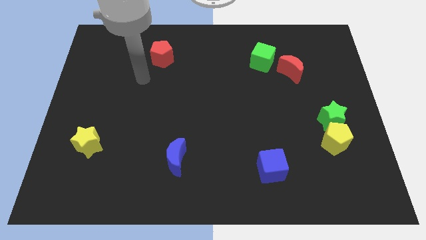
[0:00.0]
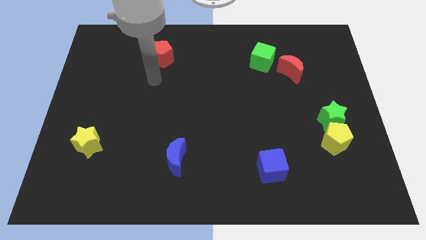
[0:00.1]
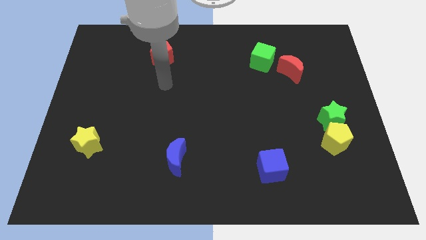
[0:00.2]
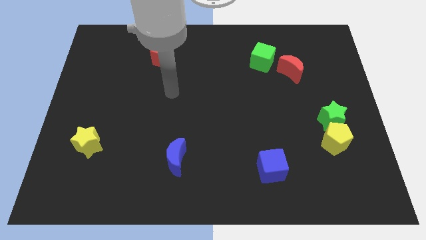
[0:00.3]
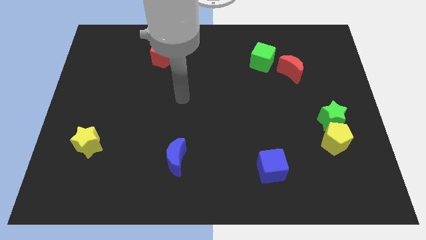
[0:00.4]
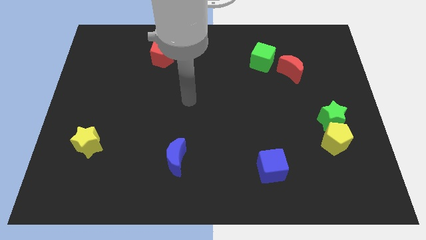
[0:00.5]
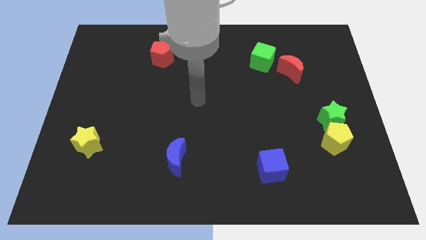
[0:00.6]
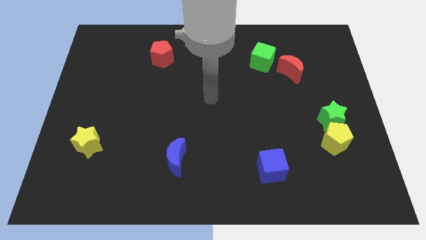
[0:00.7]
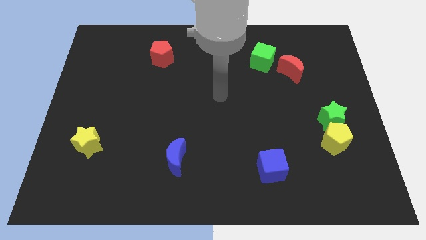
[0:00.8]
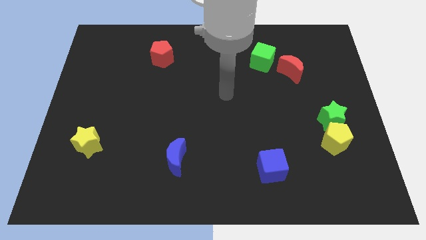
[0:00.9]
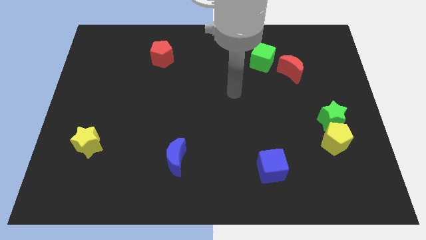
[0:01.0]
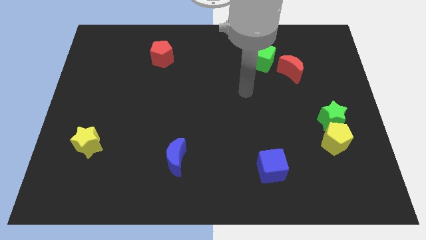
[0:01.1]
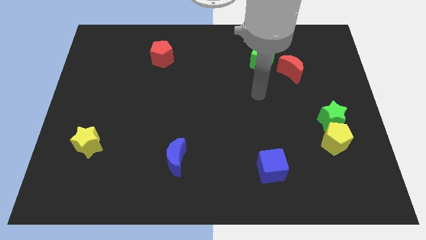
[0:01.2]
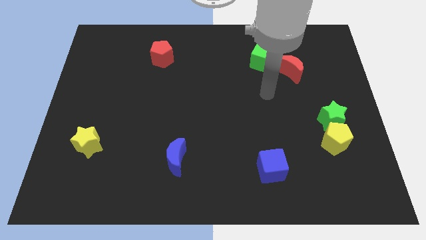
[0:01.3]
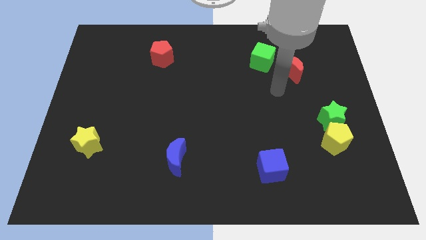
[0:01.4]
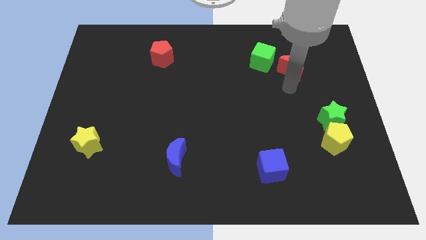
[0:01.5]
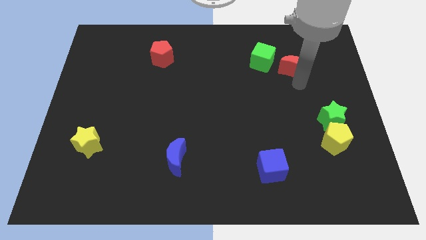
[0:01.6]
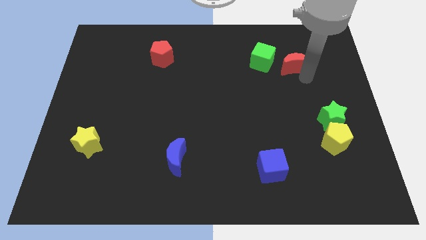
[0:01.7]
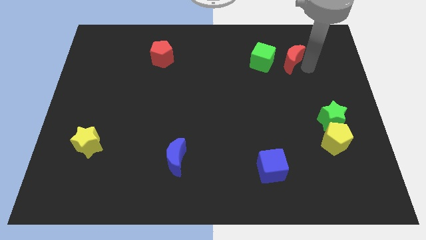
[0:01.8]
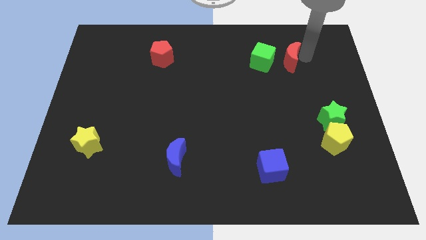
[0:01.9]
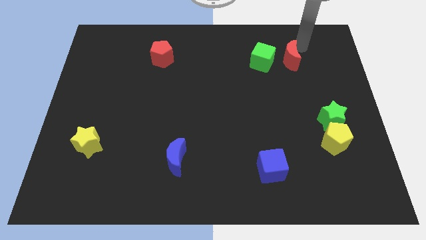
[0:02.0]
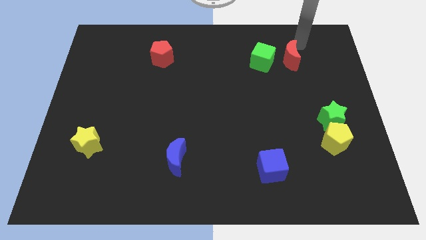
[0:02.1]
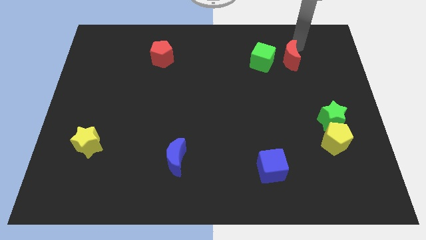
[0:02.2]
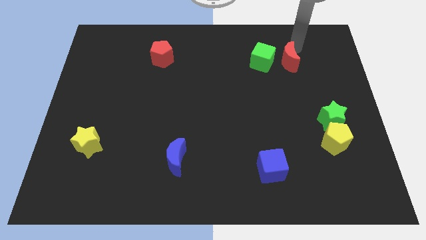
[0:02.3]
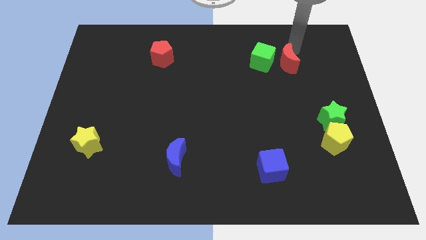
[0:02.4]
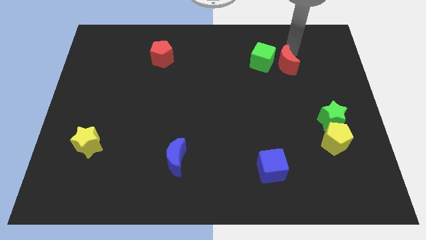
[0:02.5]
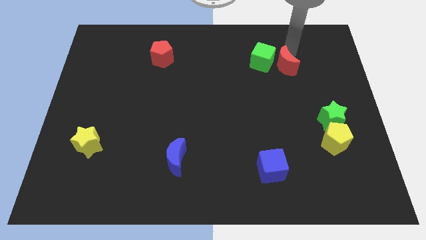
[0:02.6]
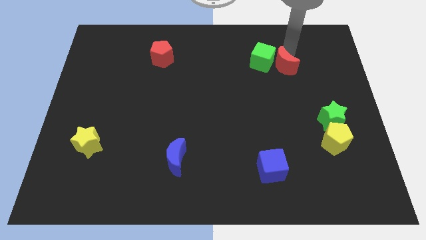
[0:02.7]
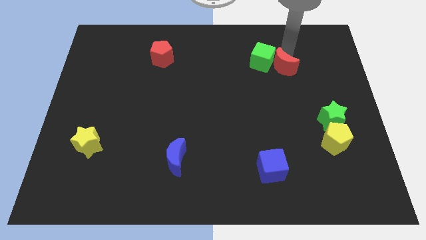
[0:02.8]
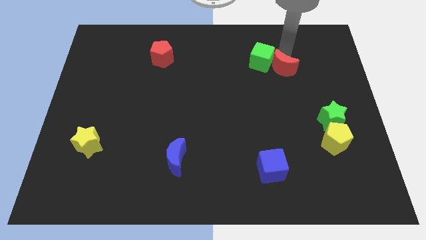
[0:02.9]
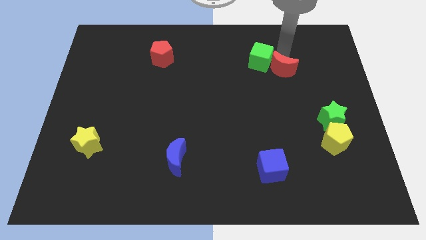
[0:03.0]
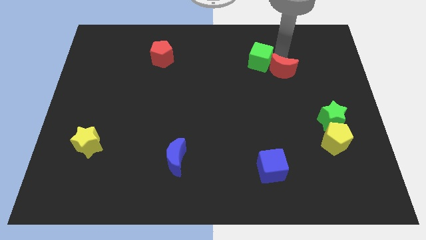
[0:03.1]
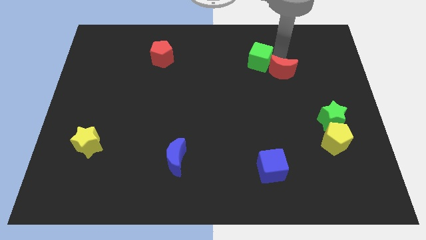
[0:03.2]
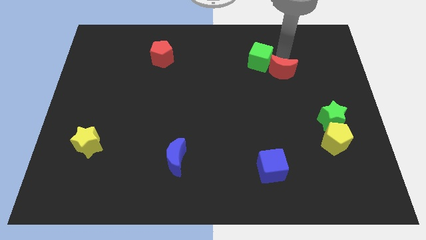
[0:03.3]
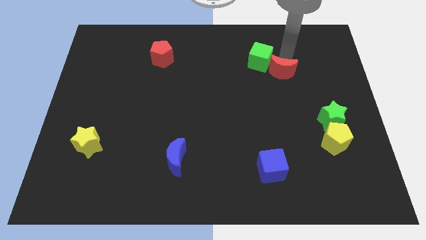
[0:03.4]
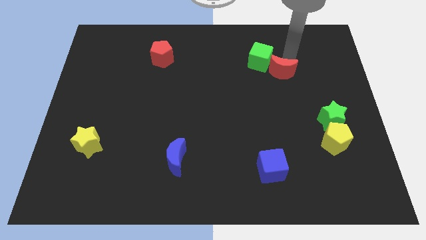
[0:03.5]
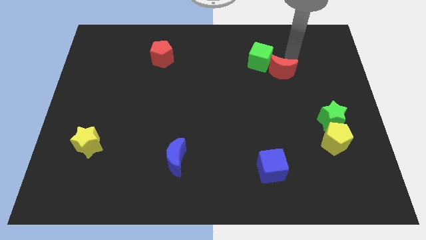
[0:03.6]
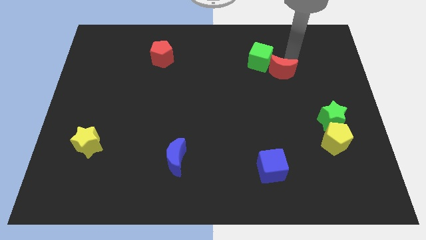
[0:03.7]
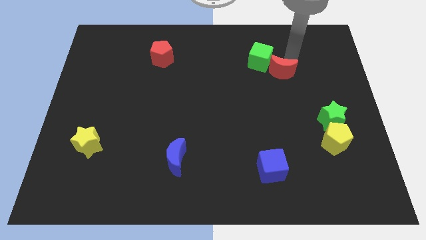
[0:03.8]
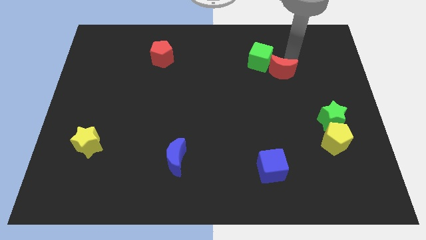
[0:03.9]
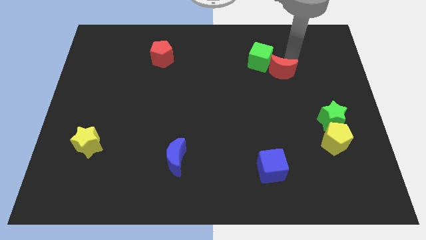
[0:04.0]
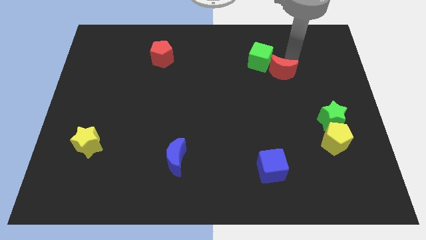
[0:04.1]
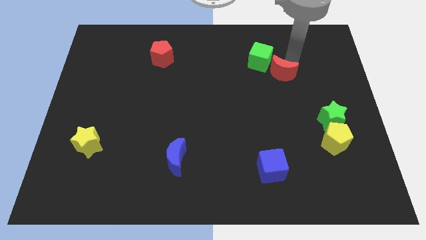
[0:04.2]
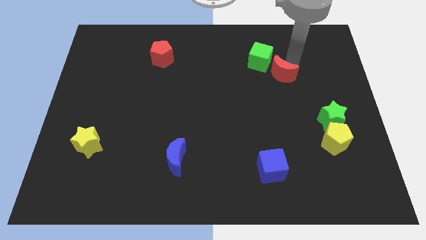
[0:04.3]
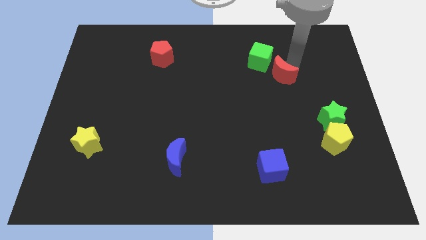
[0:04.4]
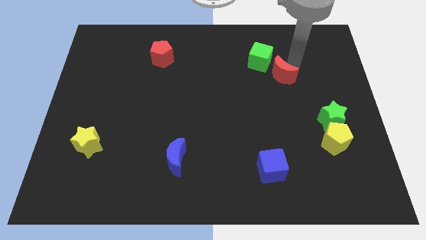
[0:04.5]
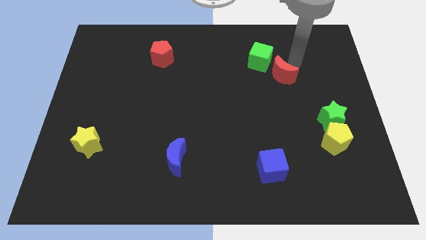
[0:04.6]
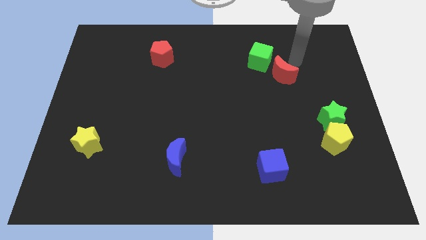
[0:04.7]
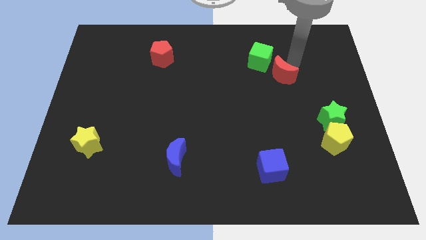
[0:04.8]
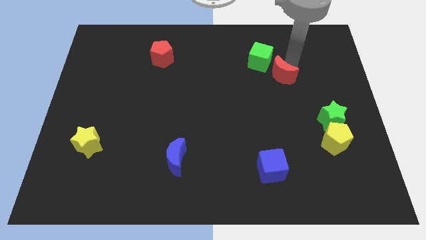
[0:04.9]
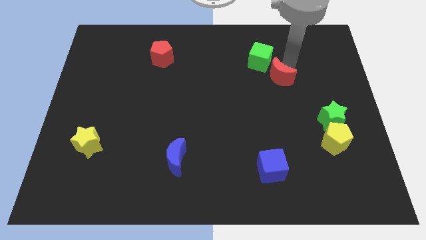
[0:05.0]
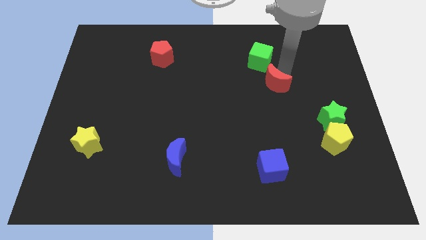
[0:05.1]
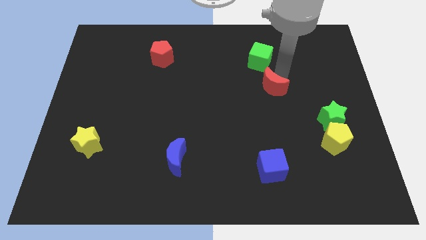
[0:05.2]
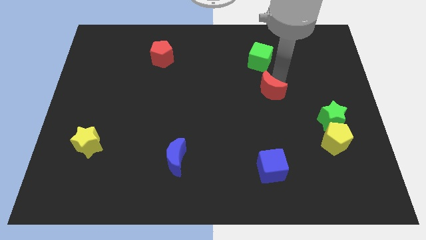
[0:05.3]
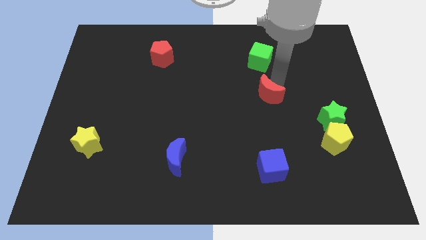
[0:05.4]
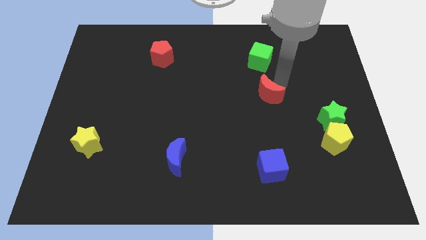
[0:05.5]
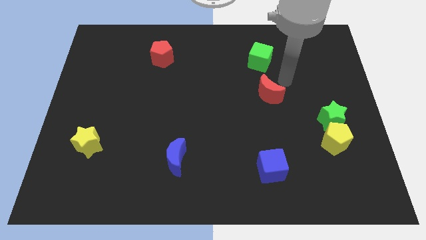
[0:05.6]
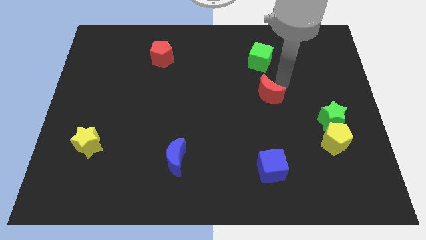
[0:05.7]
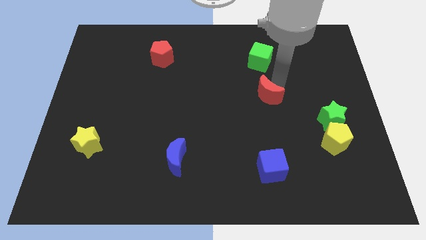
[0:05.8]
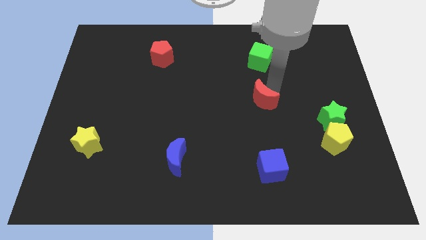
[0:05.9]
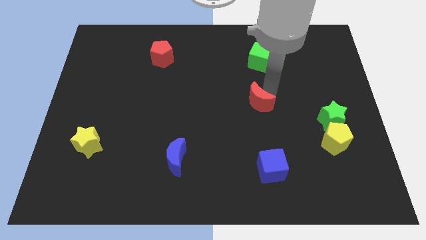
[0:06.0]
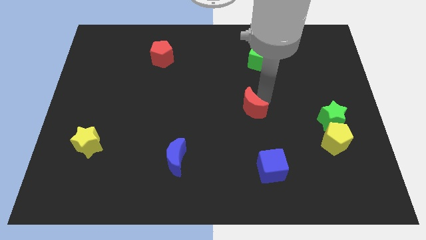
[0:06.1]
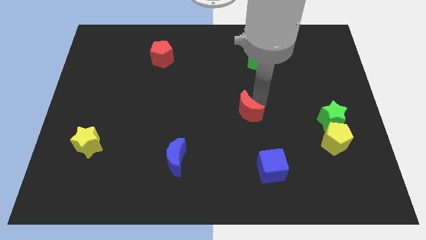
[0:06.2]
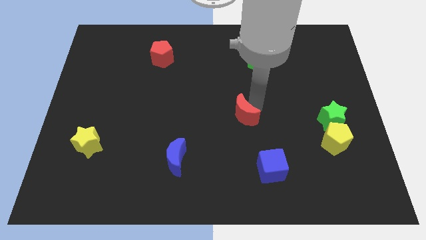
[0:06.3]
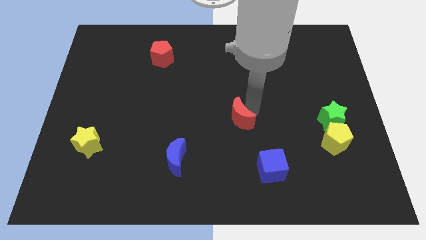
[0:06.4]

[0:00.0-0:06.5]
push the red moon down and to the left

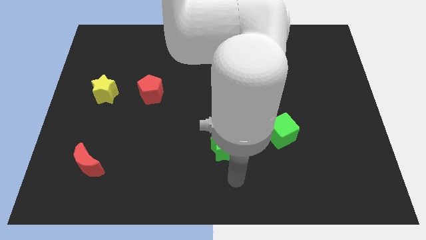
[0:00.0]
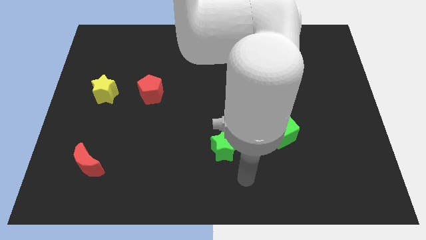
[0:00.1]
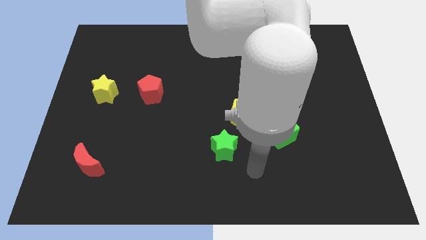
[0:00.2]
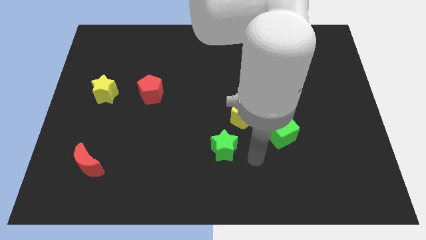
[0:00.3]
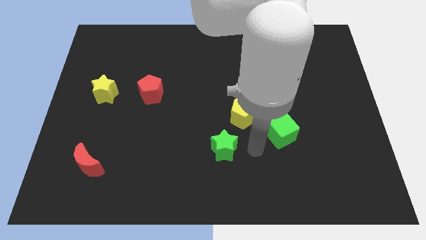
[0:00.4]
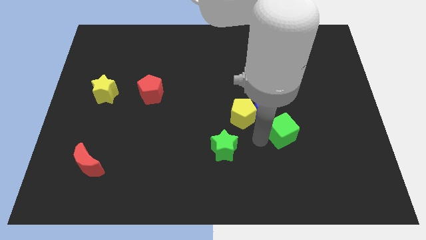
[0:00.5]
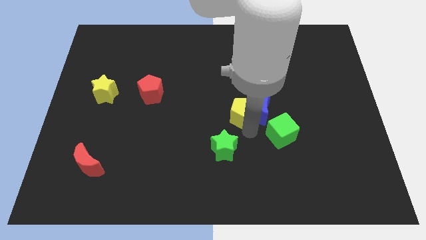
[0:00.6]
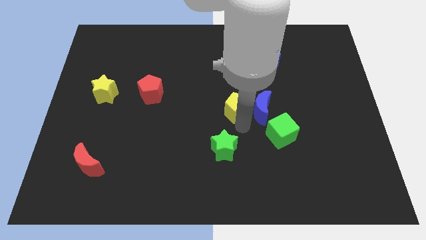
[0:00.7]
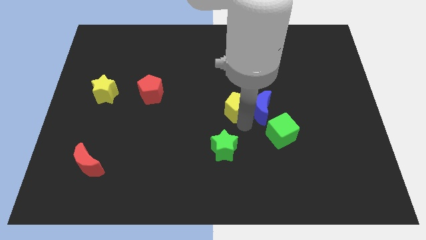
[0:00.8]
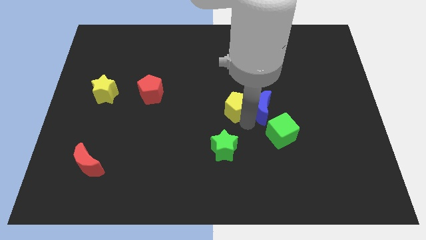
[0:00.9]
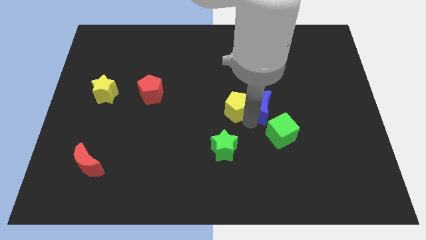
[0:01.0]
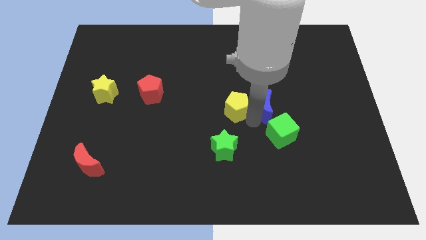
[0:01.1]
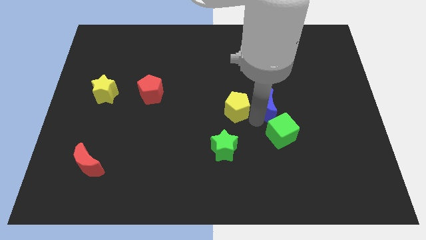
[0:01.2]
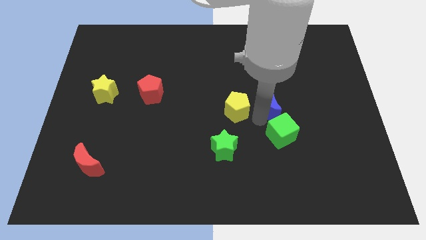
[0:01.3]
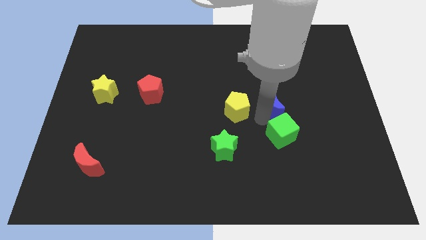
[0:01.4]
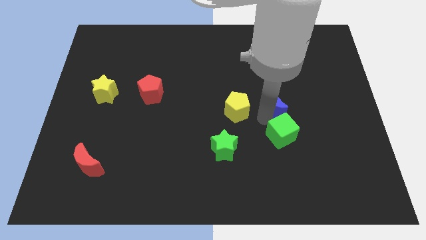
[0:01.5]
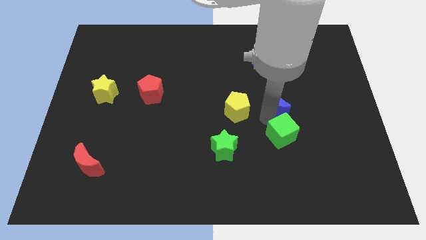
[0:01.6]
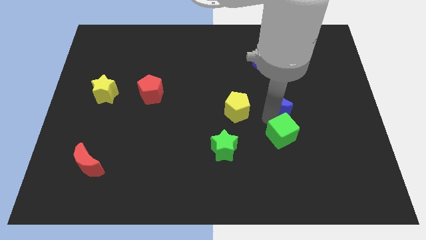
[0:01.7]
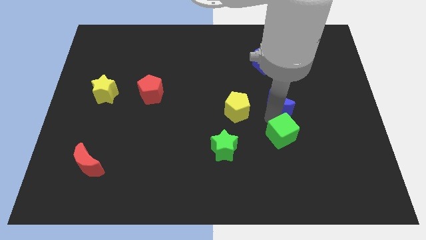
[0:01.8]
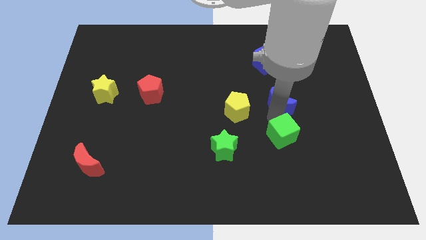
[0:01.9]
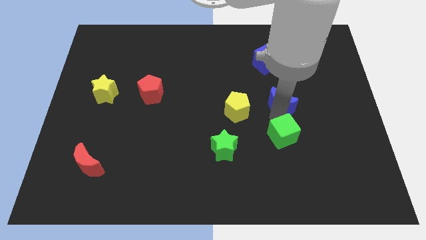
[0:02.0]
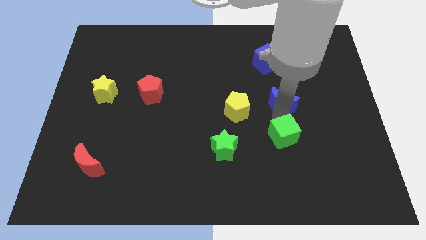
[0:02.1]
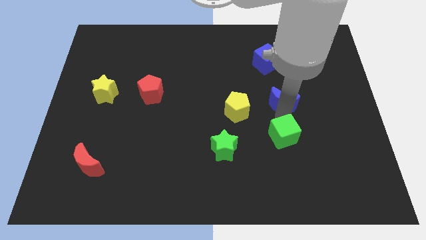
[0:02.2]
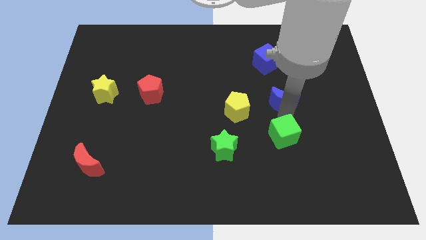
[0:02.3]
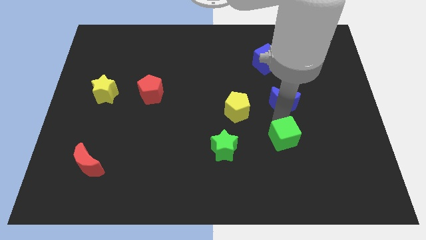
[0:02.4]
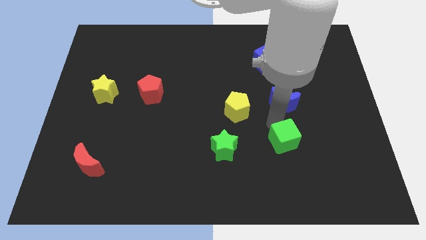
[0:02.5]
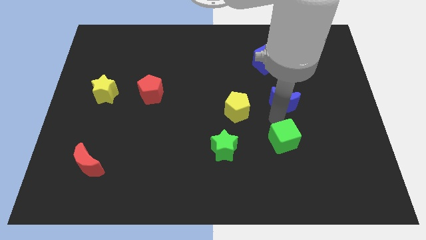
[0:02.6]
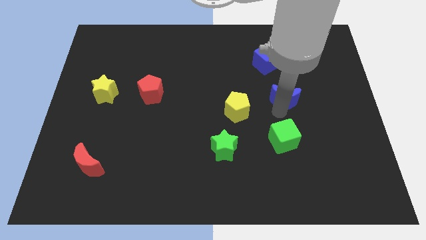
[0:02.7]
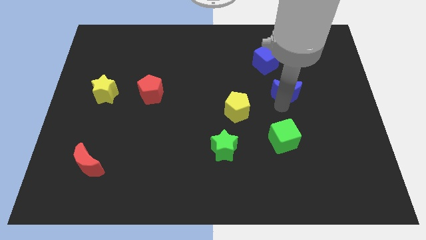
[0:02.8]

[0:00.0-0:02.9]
slightly push the blue moon diagonally upwards and to the right
